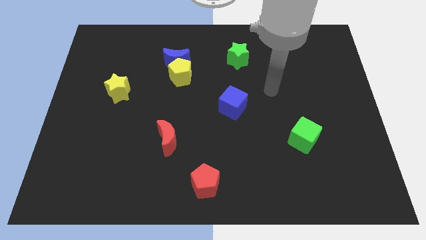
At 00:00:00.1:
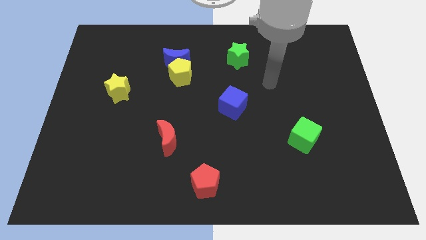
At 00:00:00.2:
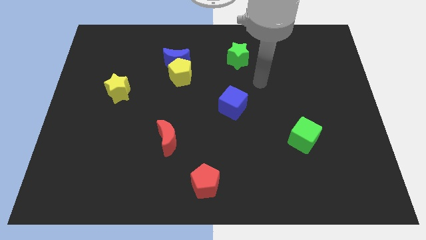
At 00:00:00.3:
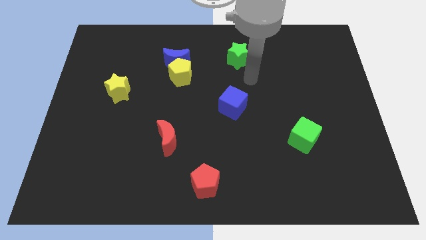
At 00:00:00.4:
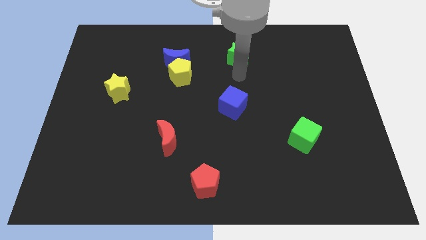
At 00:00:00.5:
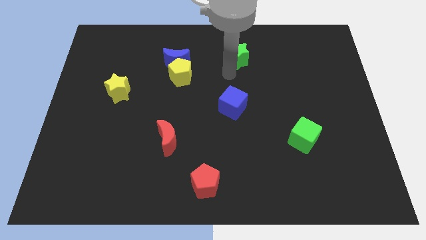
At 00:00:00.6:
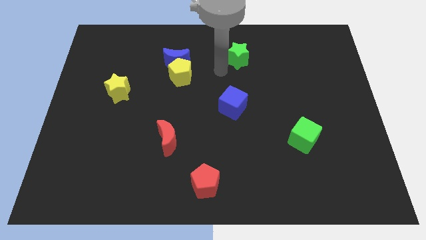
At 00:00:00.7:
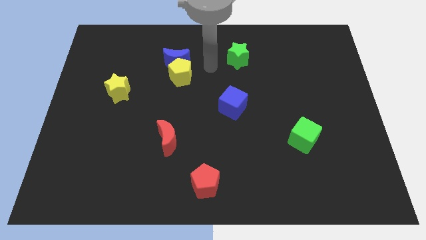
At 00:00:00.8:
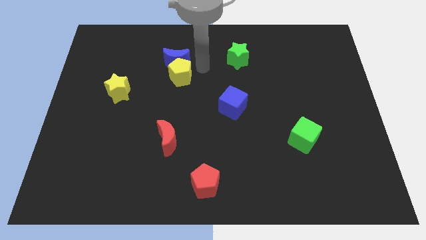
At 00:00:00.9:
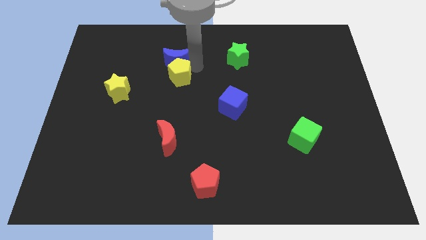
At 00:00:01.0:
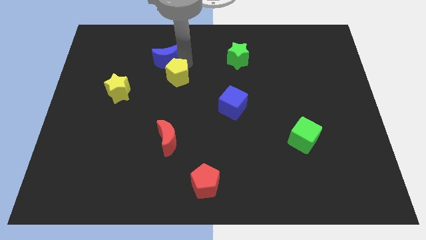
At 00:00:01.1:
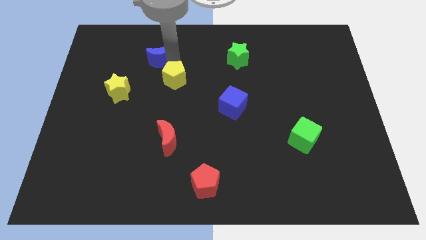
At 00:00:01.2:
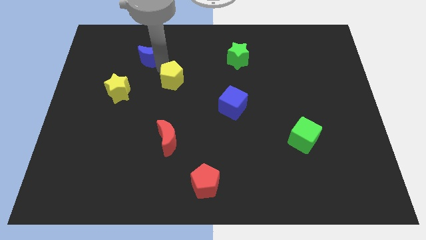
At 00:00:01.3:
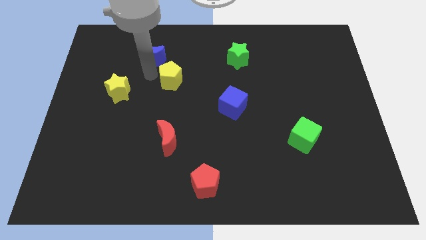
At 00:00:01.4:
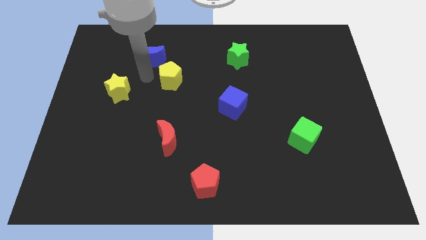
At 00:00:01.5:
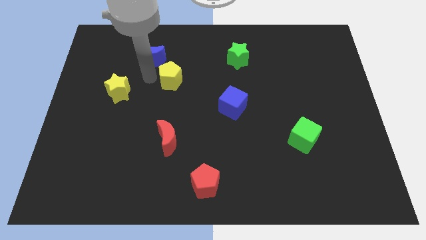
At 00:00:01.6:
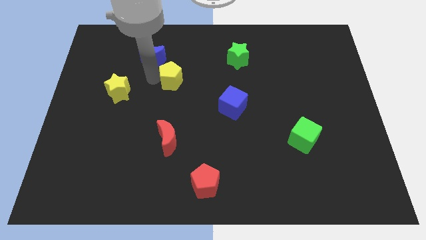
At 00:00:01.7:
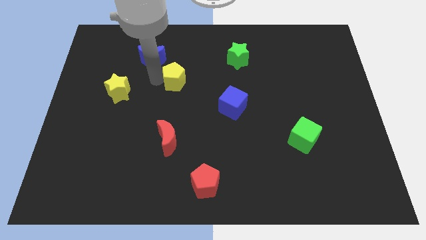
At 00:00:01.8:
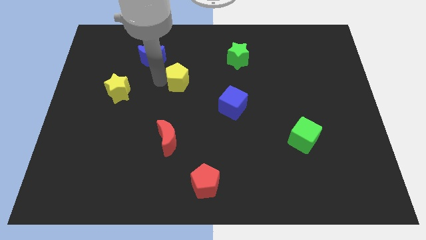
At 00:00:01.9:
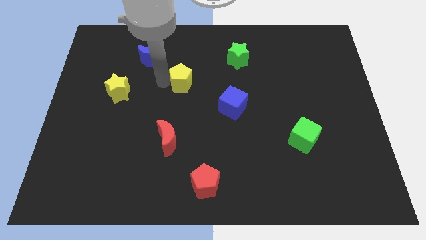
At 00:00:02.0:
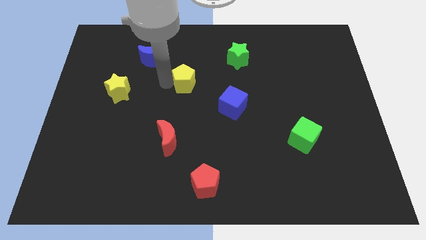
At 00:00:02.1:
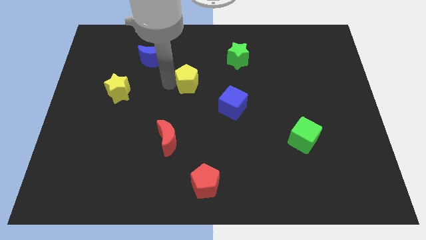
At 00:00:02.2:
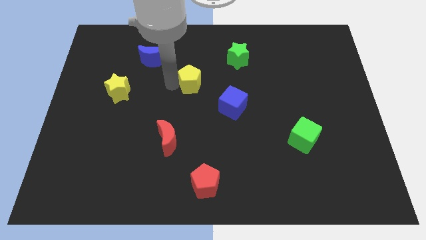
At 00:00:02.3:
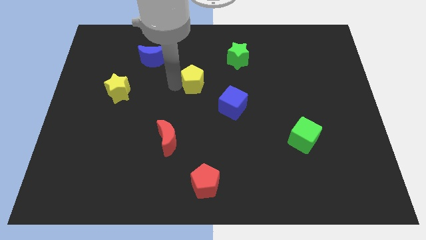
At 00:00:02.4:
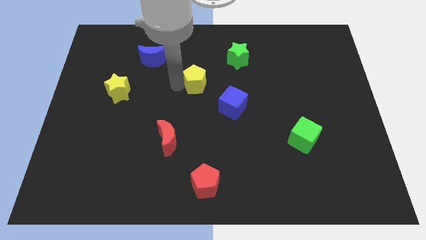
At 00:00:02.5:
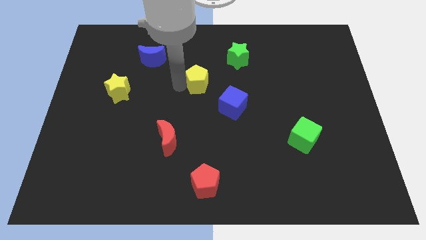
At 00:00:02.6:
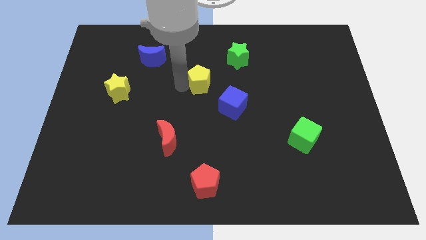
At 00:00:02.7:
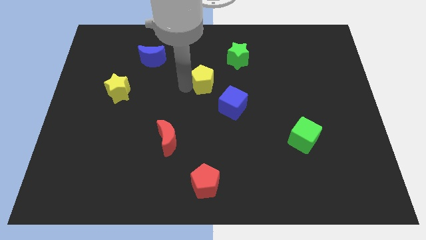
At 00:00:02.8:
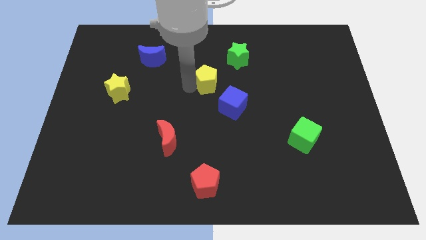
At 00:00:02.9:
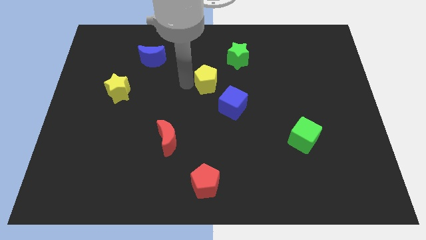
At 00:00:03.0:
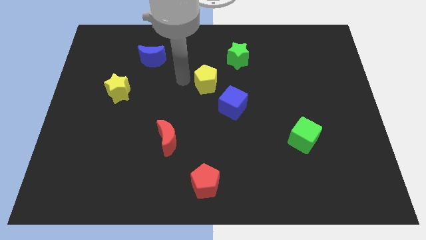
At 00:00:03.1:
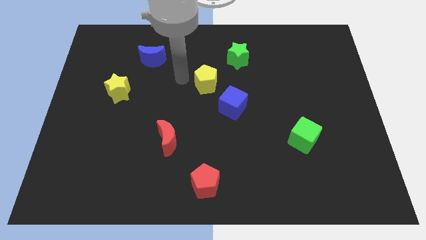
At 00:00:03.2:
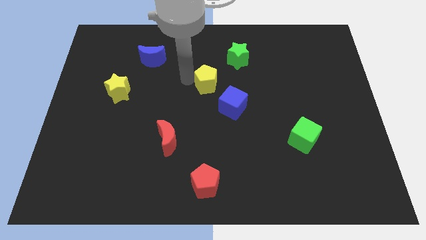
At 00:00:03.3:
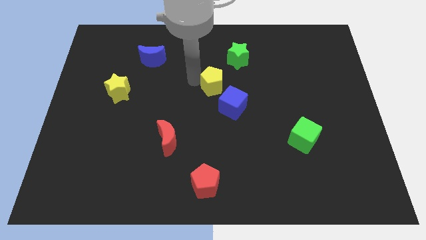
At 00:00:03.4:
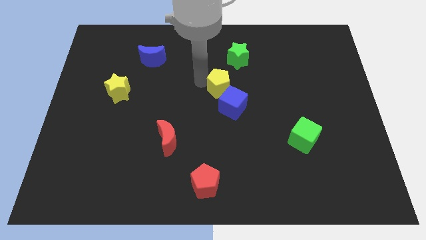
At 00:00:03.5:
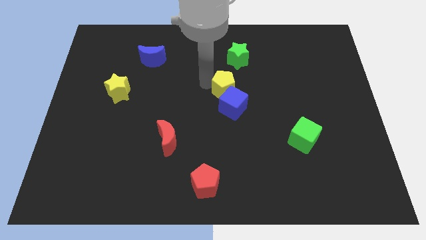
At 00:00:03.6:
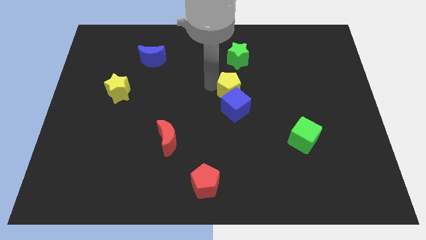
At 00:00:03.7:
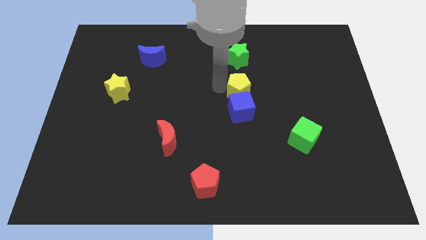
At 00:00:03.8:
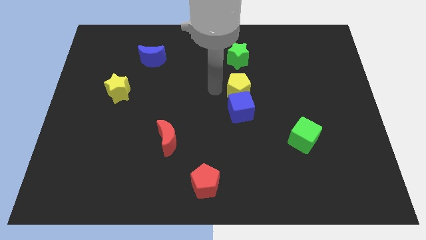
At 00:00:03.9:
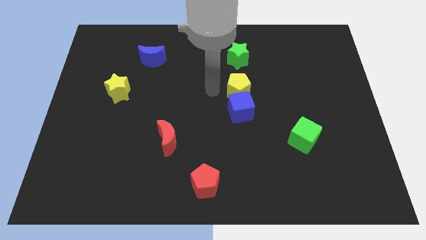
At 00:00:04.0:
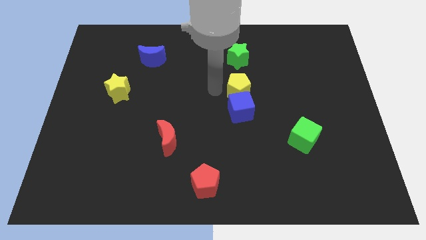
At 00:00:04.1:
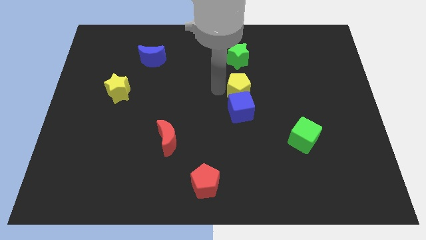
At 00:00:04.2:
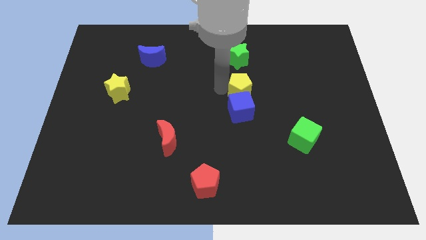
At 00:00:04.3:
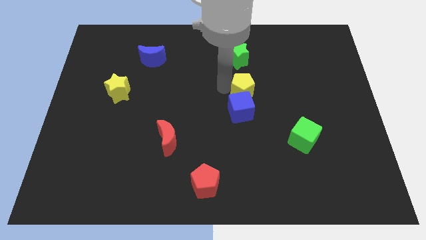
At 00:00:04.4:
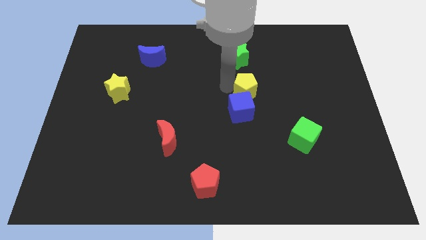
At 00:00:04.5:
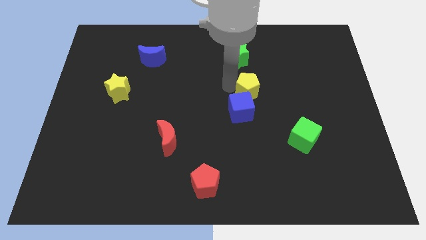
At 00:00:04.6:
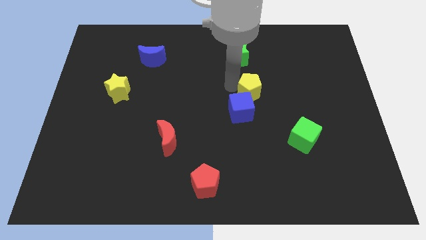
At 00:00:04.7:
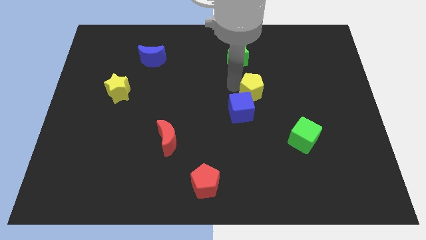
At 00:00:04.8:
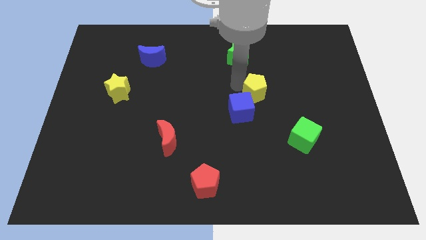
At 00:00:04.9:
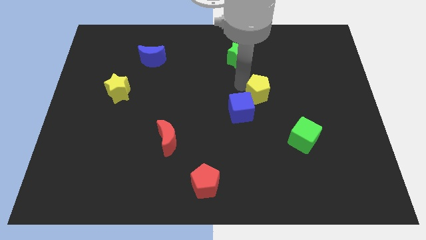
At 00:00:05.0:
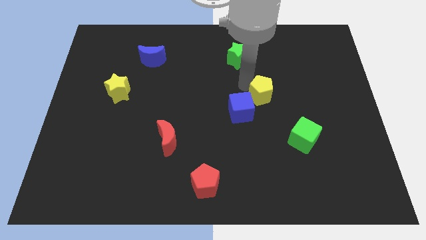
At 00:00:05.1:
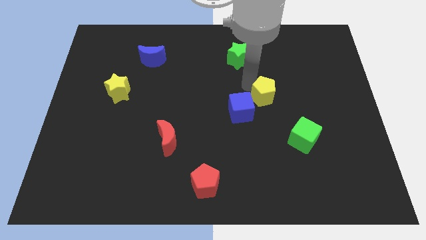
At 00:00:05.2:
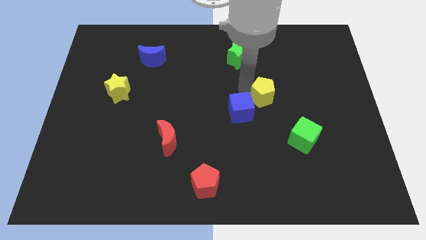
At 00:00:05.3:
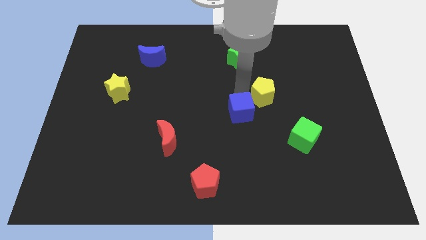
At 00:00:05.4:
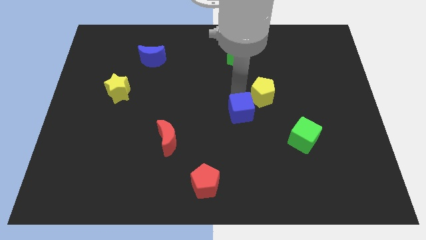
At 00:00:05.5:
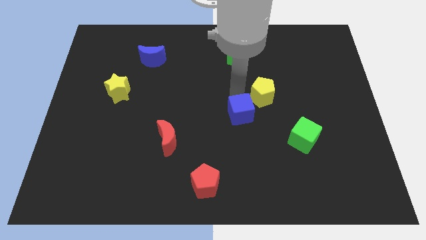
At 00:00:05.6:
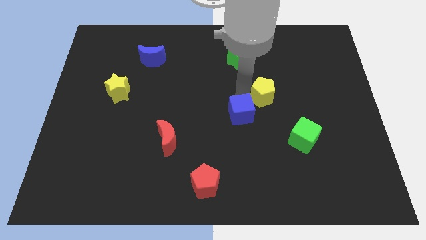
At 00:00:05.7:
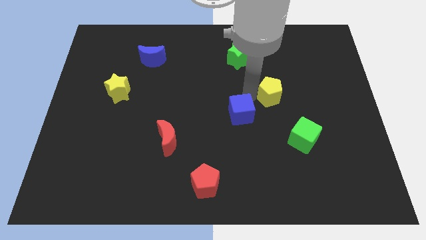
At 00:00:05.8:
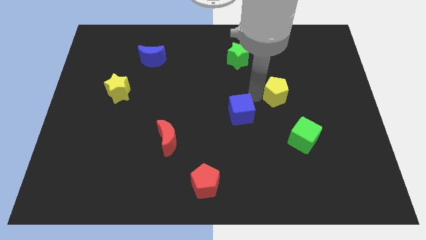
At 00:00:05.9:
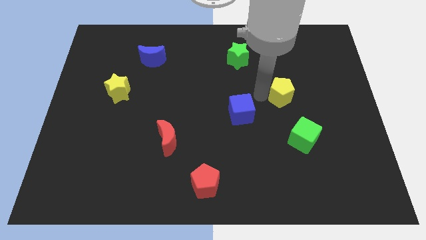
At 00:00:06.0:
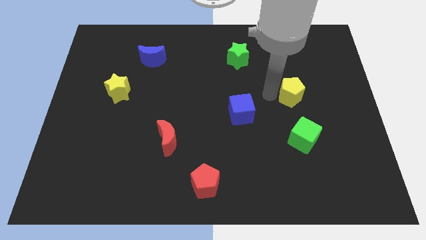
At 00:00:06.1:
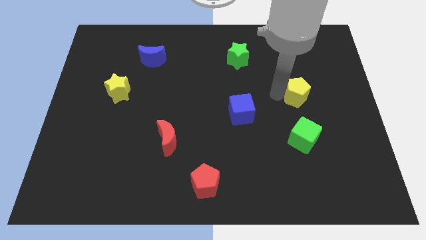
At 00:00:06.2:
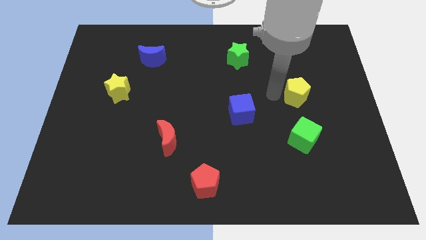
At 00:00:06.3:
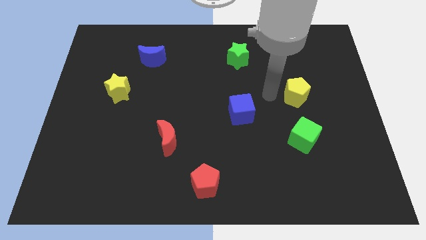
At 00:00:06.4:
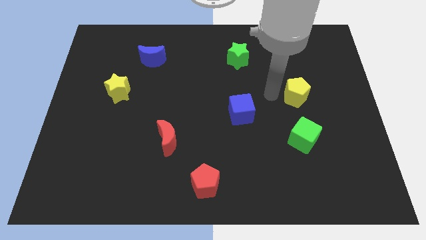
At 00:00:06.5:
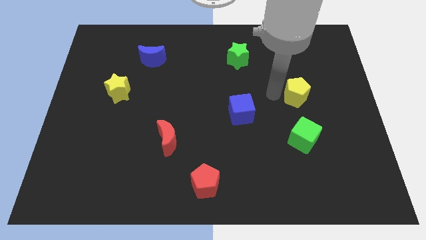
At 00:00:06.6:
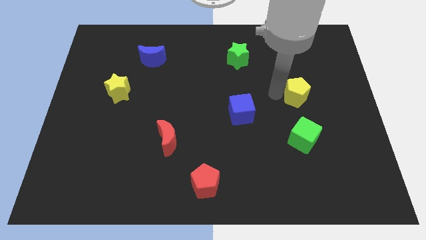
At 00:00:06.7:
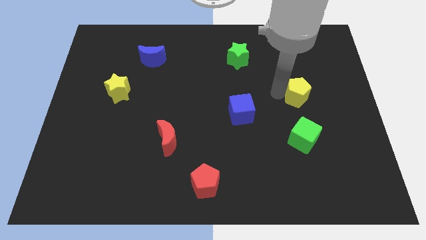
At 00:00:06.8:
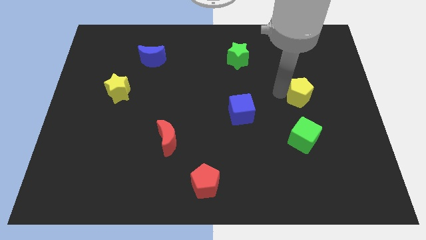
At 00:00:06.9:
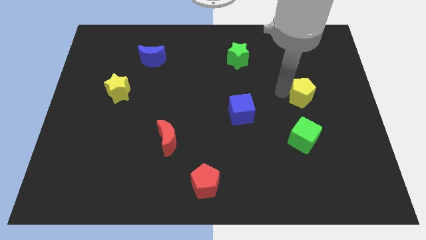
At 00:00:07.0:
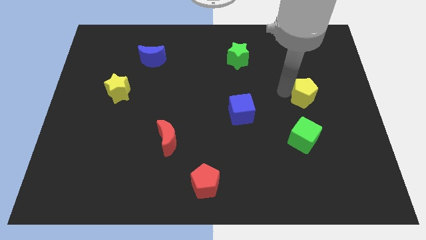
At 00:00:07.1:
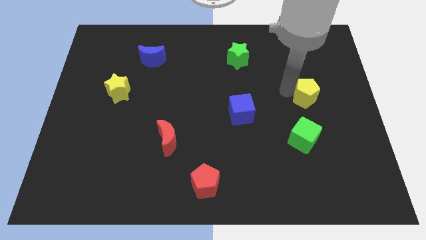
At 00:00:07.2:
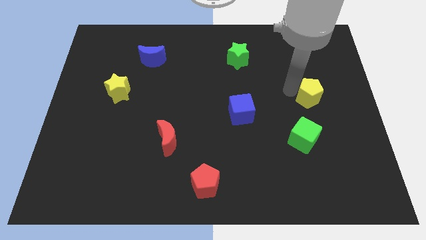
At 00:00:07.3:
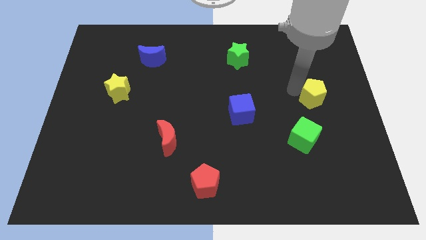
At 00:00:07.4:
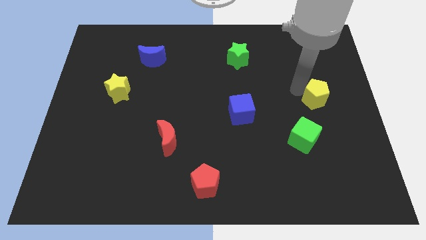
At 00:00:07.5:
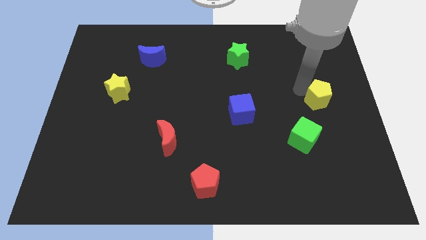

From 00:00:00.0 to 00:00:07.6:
slide the yellow pentagon to the center right
